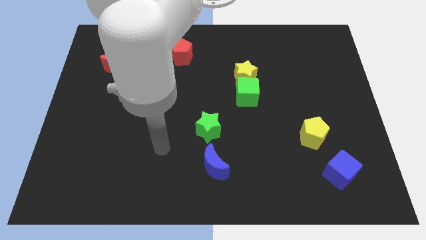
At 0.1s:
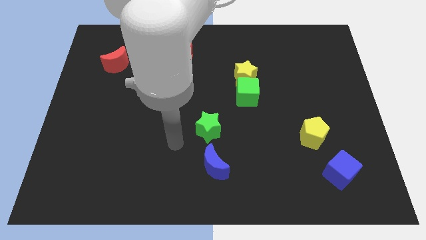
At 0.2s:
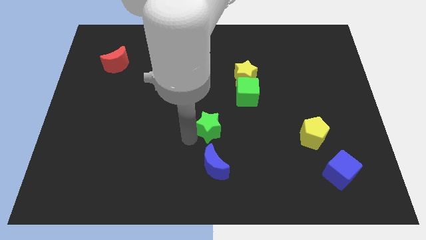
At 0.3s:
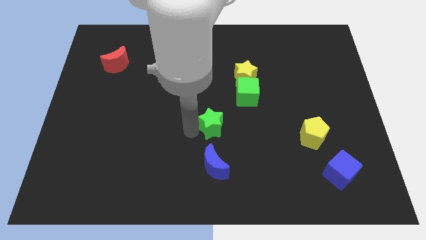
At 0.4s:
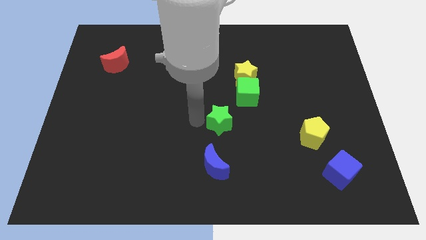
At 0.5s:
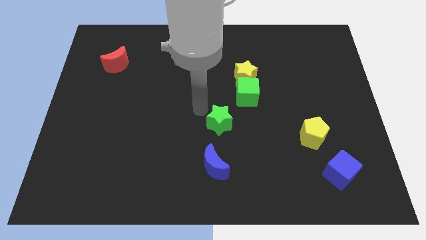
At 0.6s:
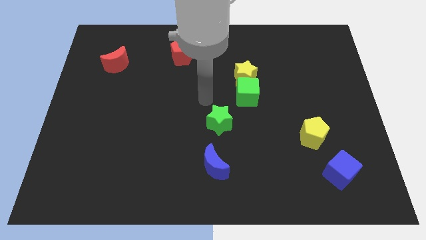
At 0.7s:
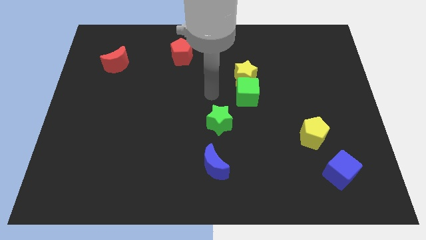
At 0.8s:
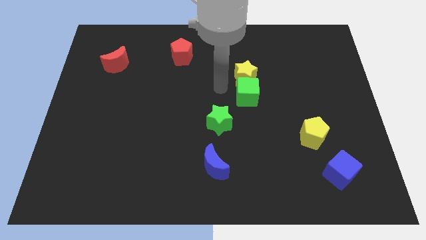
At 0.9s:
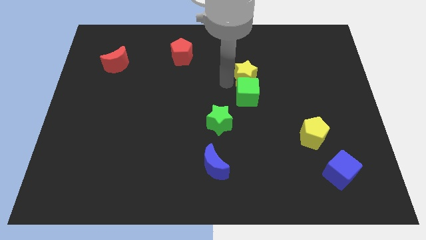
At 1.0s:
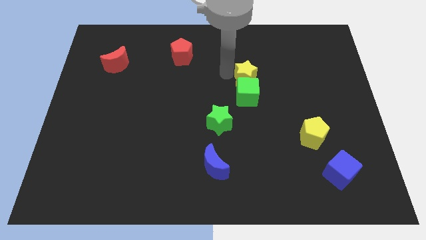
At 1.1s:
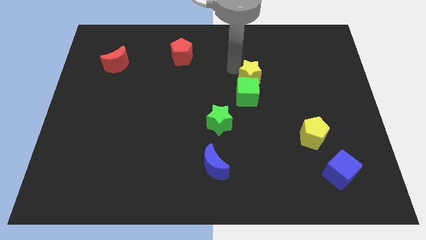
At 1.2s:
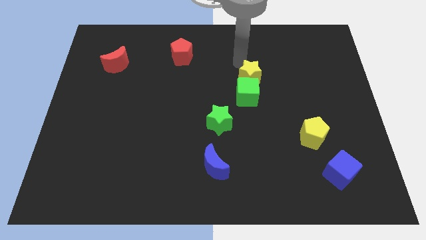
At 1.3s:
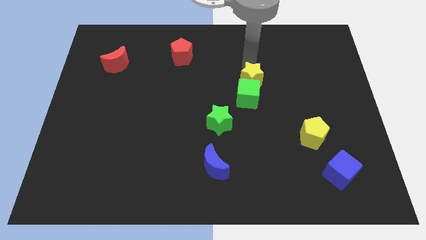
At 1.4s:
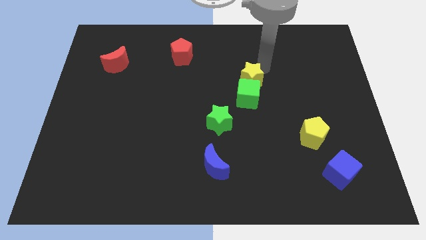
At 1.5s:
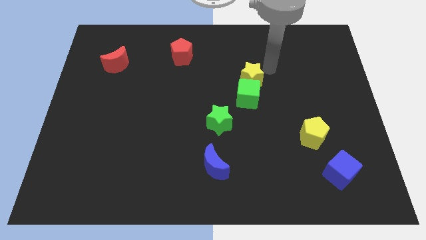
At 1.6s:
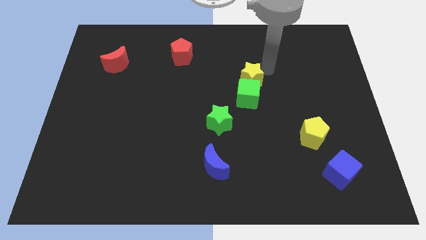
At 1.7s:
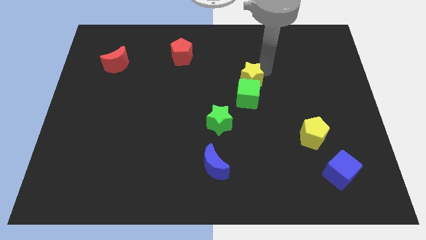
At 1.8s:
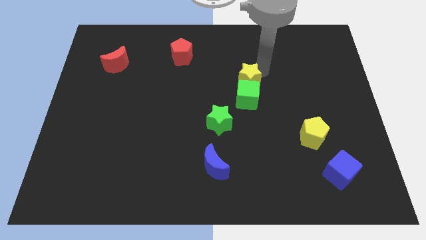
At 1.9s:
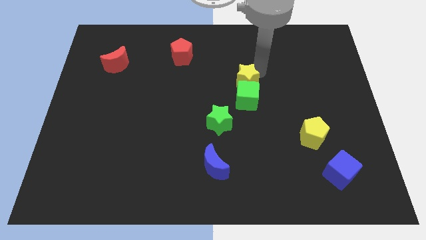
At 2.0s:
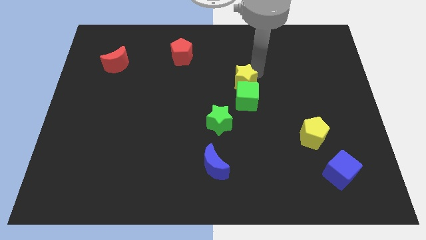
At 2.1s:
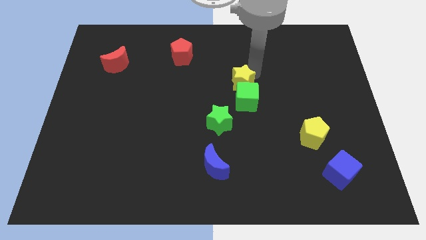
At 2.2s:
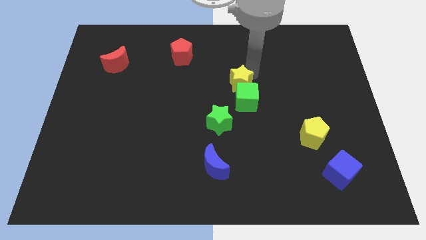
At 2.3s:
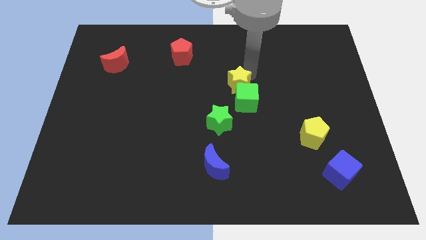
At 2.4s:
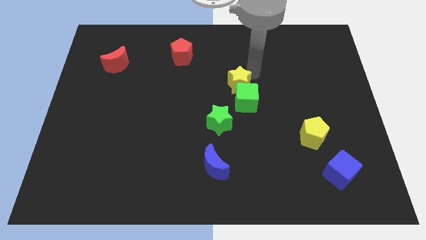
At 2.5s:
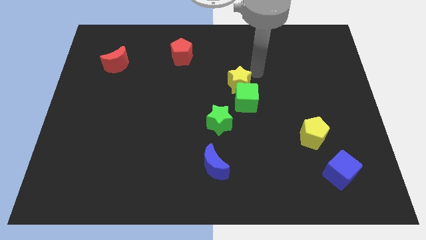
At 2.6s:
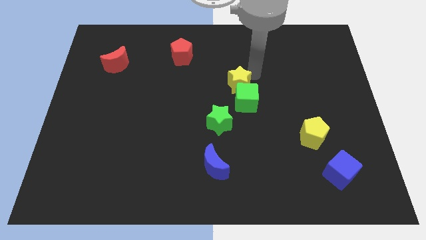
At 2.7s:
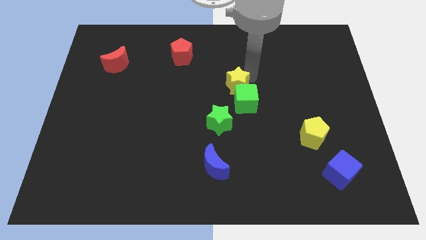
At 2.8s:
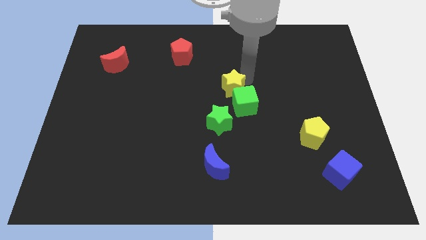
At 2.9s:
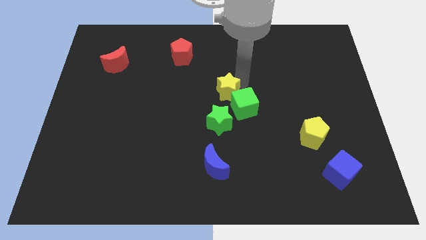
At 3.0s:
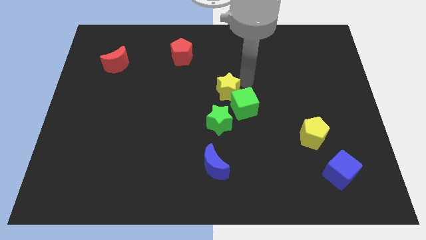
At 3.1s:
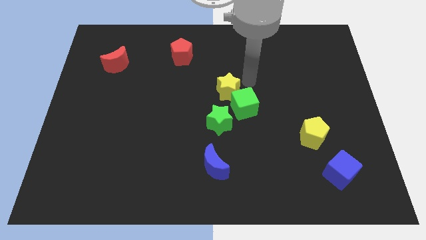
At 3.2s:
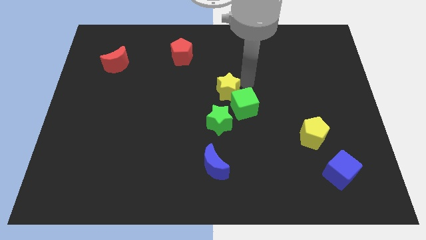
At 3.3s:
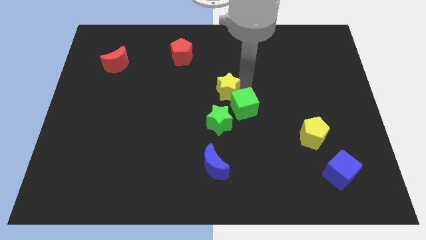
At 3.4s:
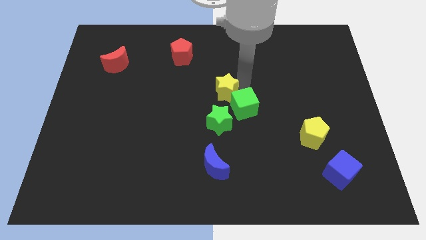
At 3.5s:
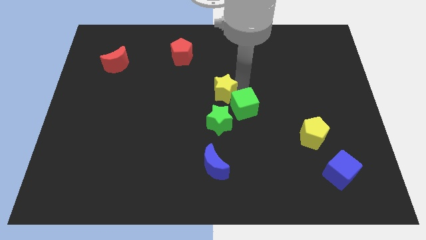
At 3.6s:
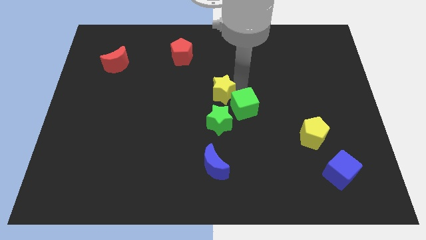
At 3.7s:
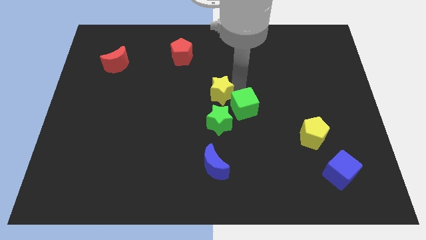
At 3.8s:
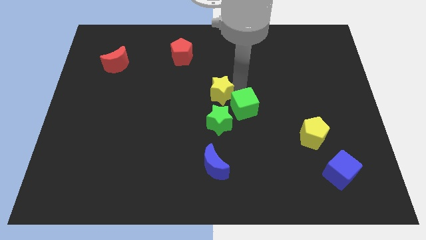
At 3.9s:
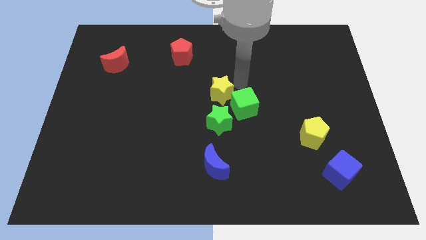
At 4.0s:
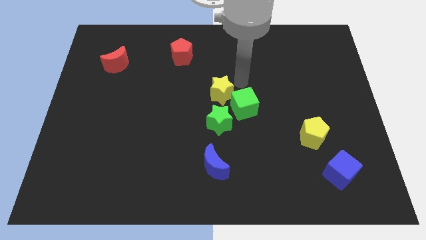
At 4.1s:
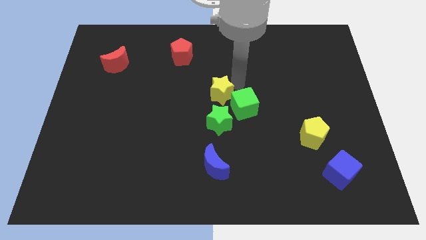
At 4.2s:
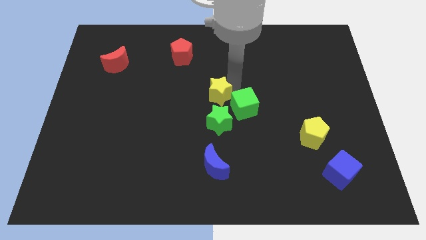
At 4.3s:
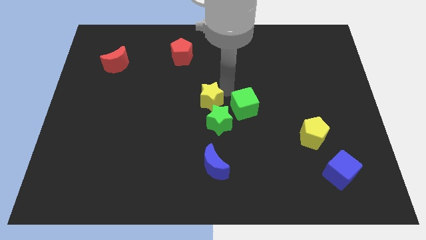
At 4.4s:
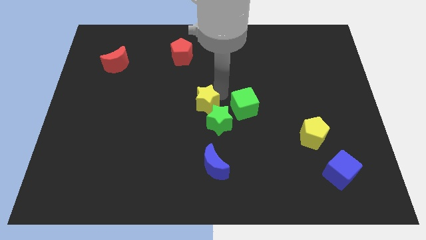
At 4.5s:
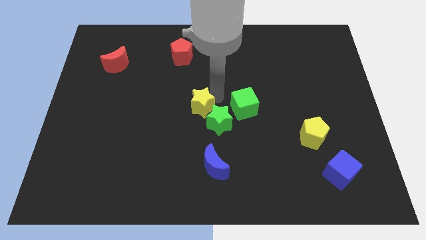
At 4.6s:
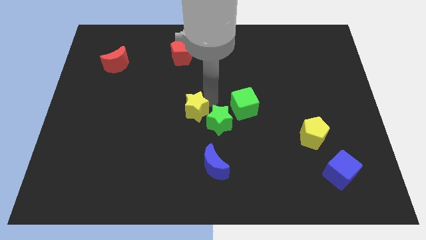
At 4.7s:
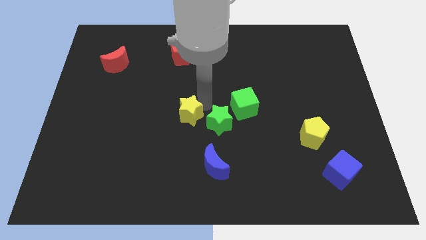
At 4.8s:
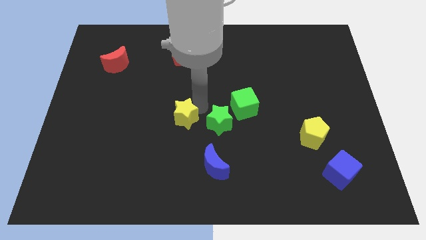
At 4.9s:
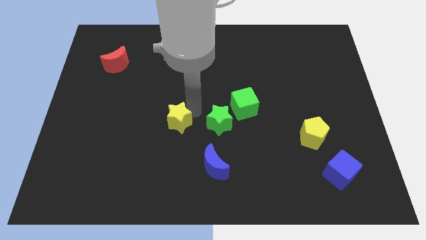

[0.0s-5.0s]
move the yellow star down and then to the left

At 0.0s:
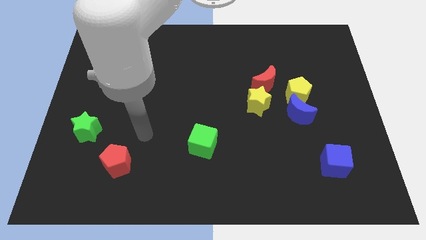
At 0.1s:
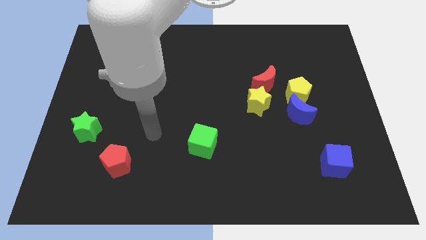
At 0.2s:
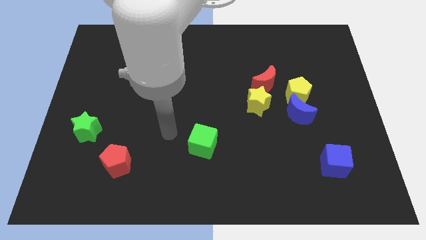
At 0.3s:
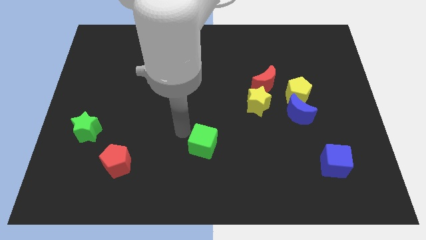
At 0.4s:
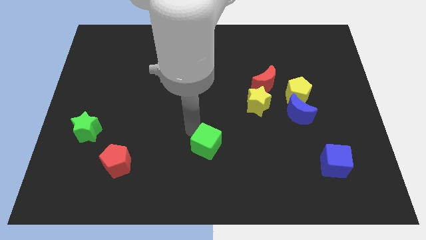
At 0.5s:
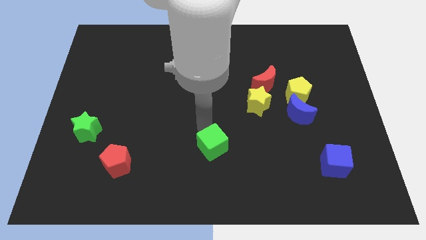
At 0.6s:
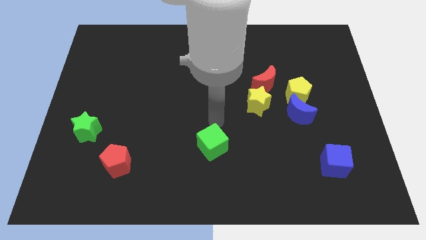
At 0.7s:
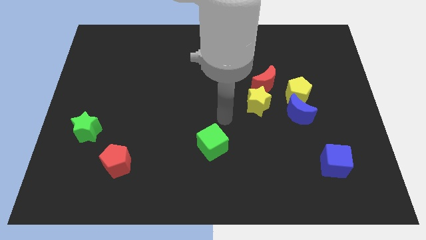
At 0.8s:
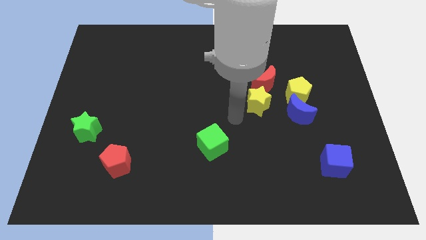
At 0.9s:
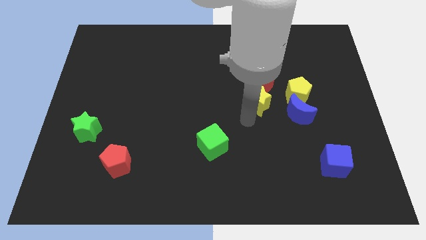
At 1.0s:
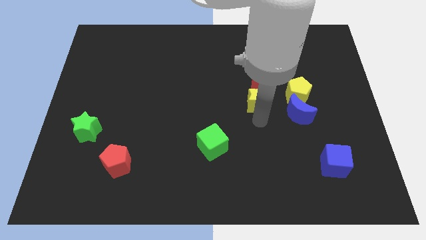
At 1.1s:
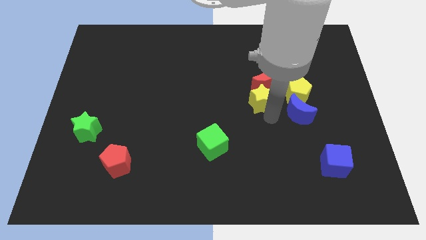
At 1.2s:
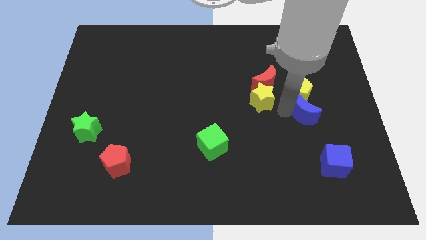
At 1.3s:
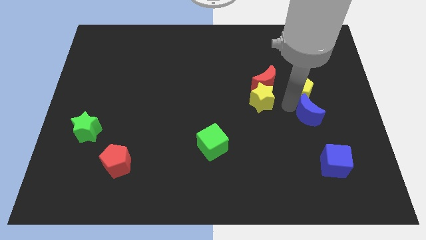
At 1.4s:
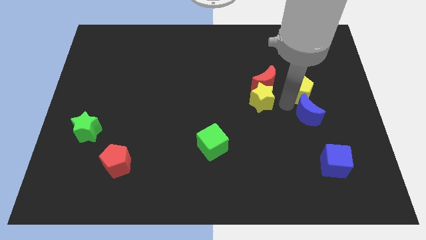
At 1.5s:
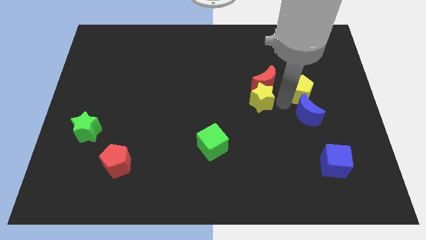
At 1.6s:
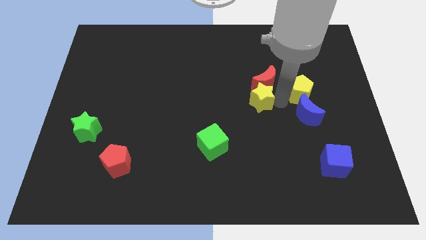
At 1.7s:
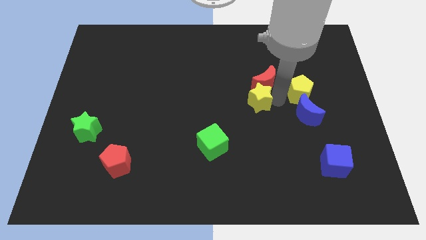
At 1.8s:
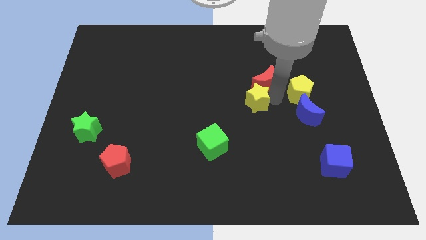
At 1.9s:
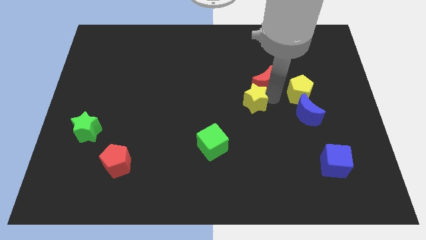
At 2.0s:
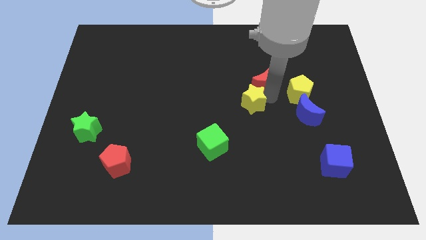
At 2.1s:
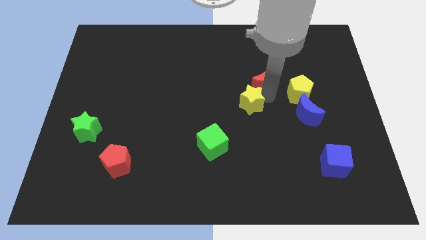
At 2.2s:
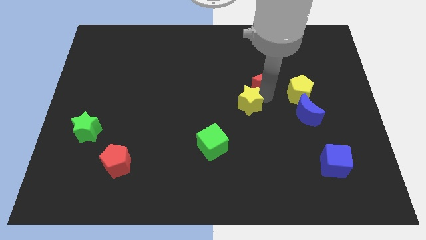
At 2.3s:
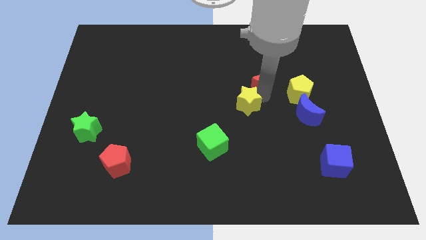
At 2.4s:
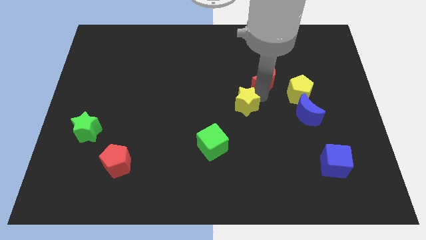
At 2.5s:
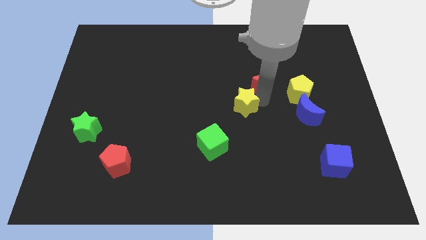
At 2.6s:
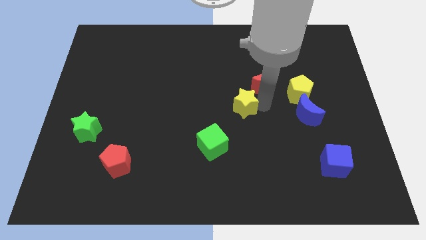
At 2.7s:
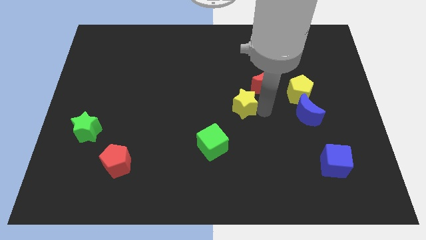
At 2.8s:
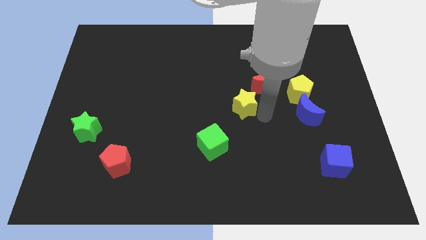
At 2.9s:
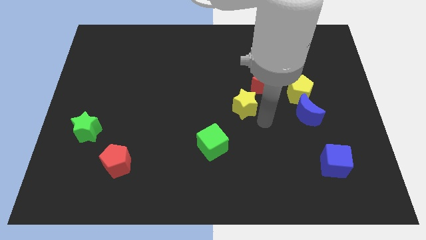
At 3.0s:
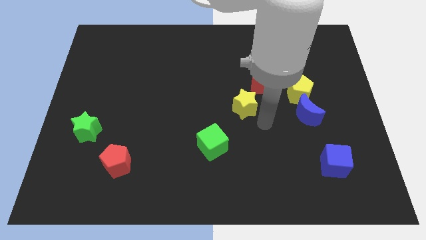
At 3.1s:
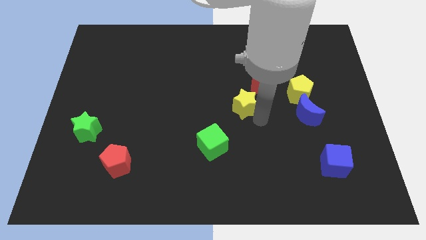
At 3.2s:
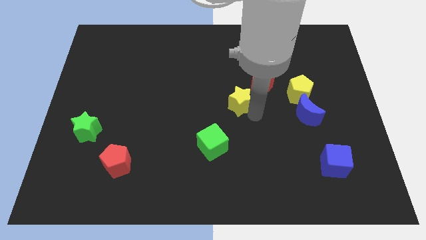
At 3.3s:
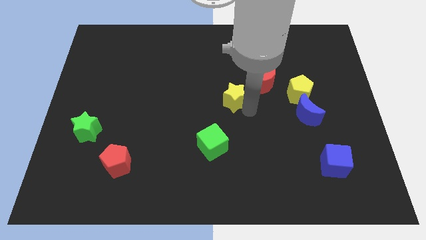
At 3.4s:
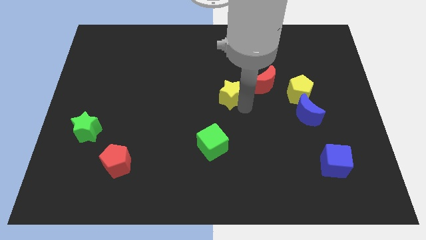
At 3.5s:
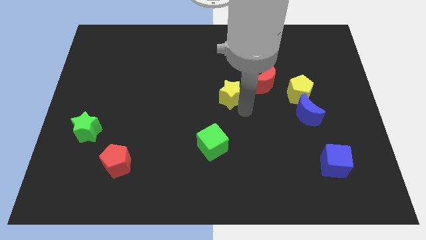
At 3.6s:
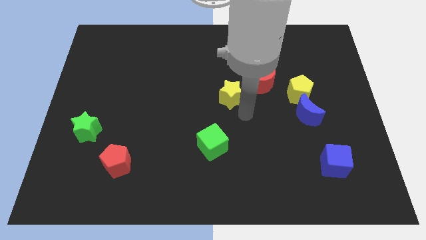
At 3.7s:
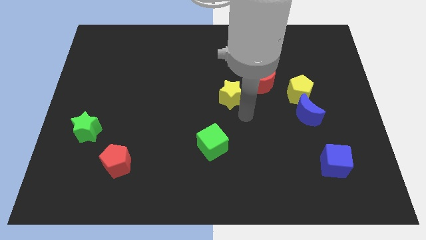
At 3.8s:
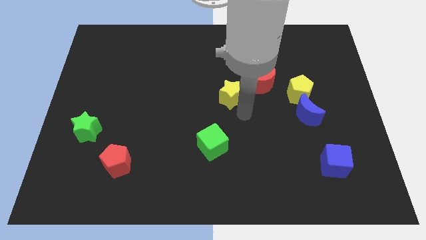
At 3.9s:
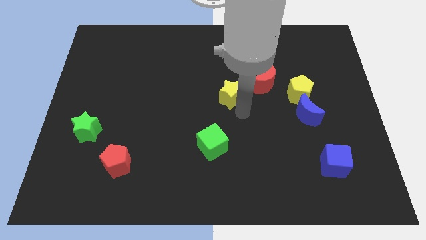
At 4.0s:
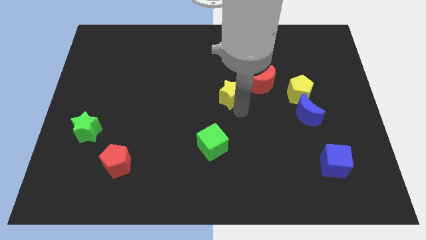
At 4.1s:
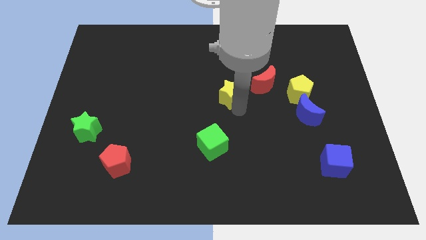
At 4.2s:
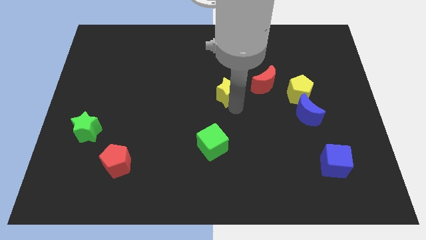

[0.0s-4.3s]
slide the yellow star slightly up and then left
